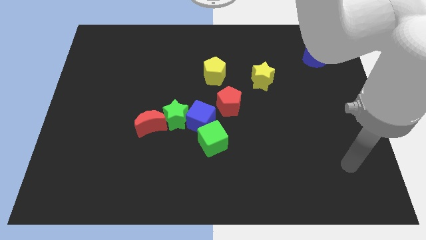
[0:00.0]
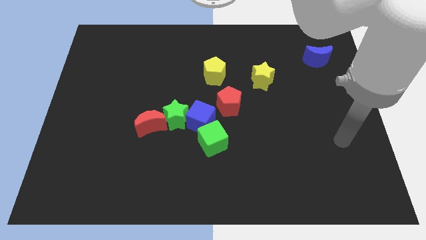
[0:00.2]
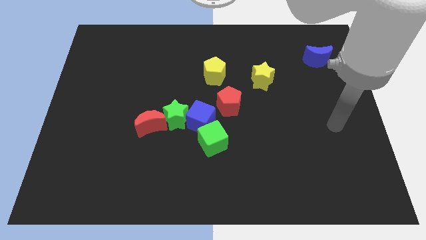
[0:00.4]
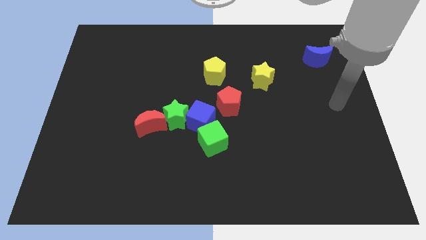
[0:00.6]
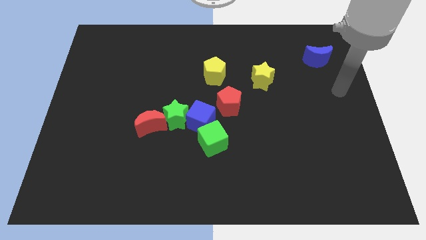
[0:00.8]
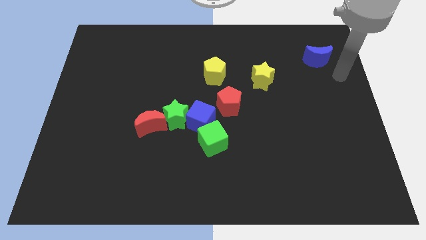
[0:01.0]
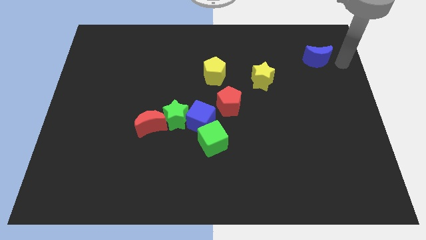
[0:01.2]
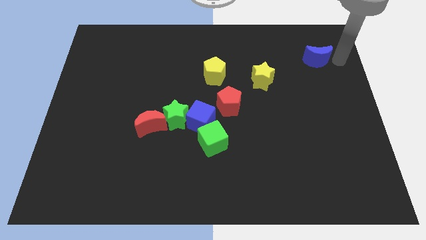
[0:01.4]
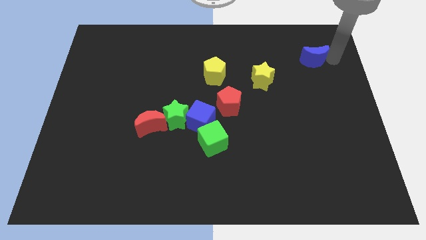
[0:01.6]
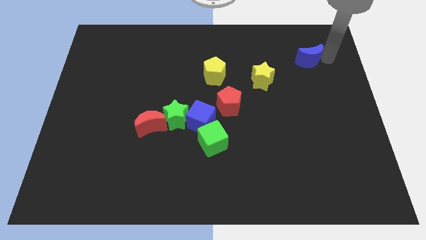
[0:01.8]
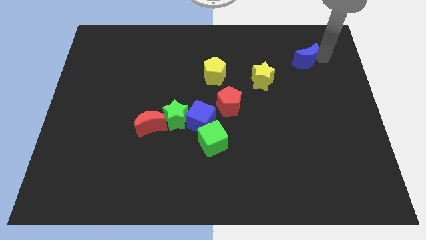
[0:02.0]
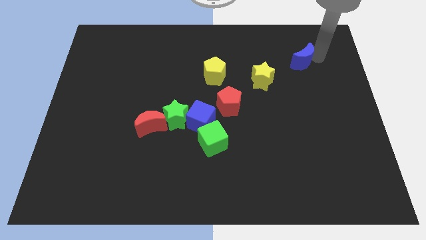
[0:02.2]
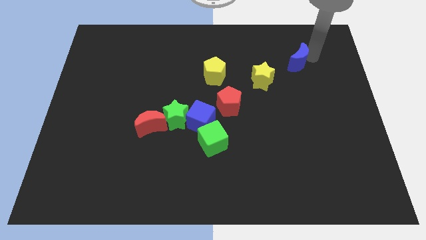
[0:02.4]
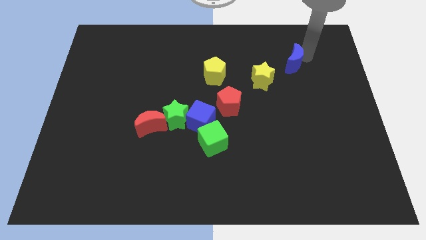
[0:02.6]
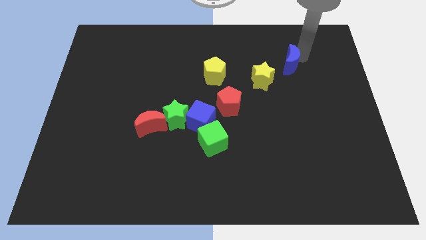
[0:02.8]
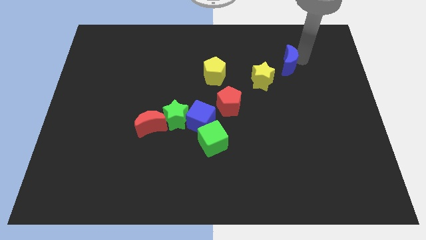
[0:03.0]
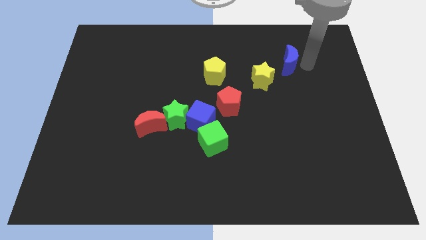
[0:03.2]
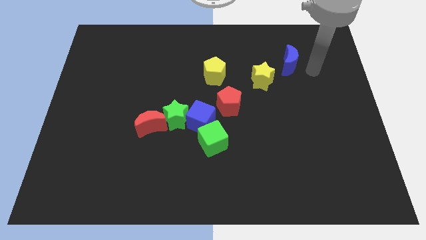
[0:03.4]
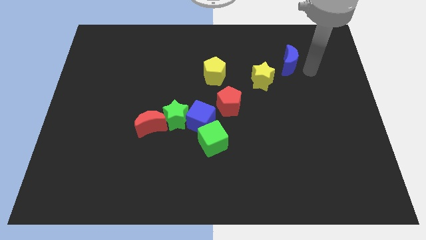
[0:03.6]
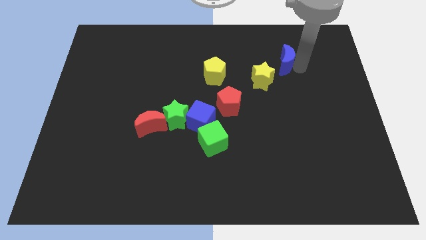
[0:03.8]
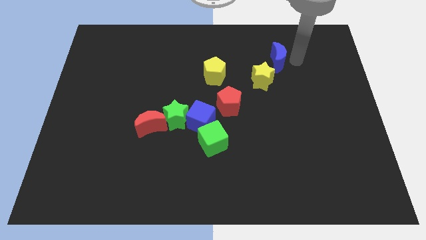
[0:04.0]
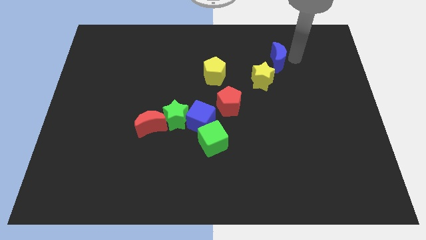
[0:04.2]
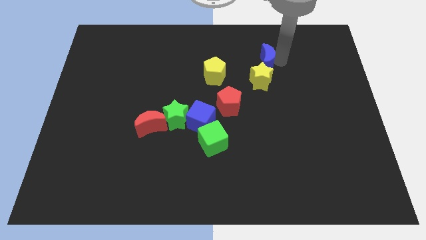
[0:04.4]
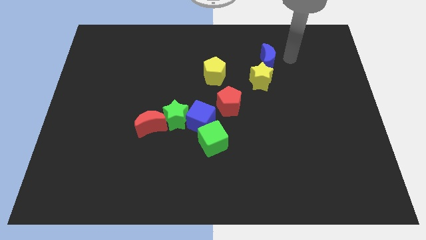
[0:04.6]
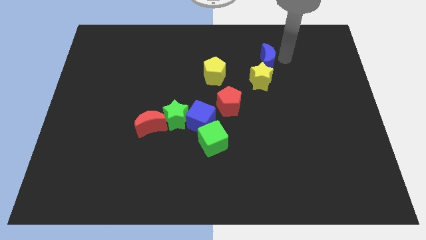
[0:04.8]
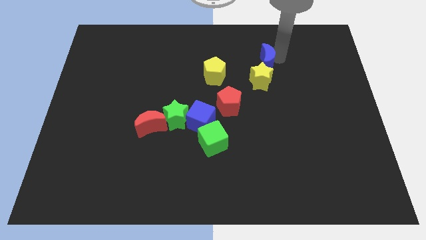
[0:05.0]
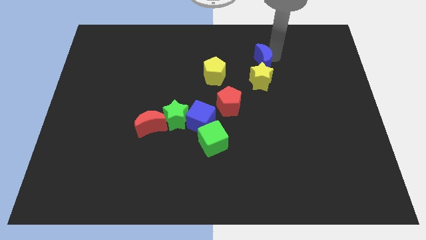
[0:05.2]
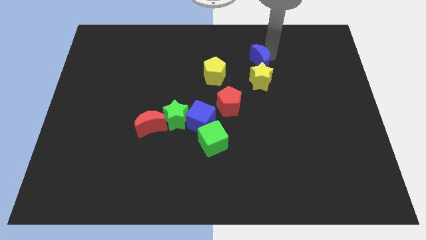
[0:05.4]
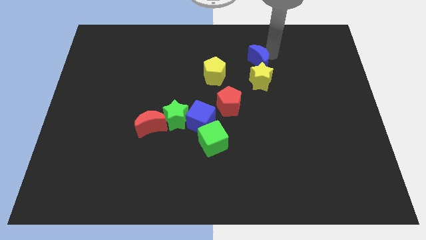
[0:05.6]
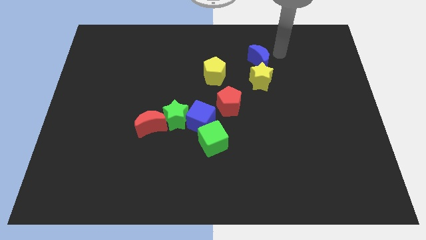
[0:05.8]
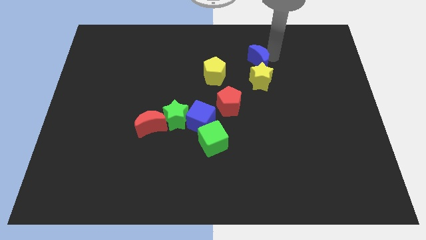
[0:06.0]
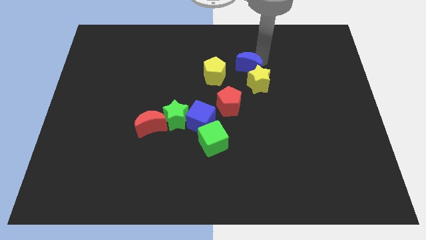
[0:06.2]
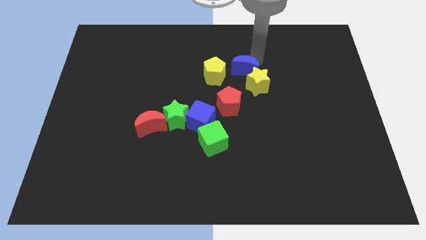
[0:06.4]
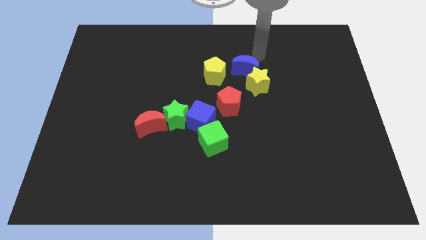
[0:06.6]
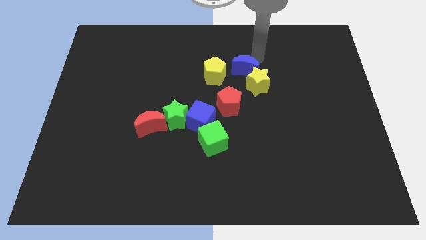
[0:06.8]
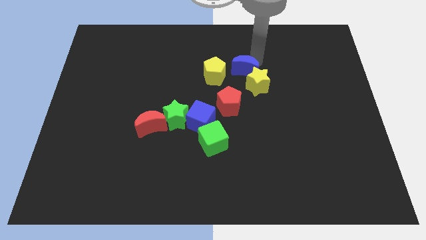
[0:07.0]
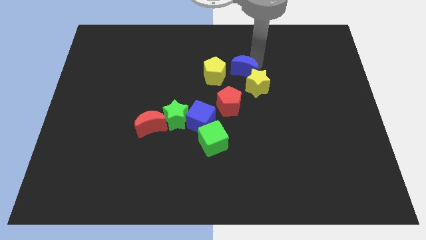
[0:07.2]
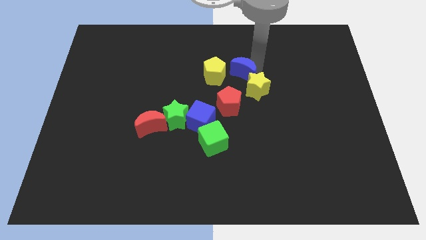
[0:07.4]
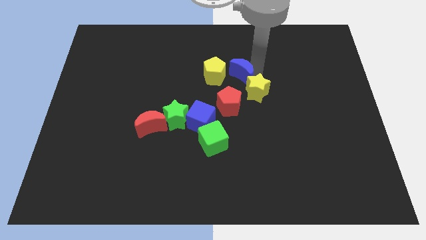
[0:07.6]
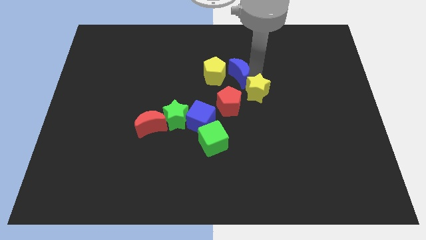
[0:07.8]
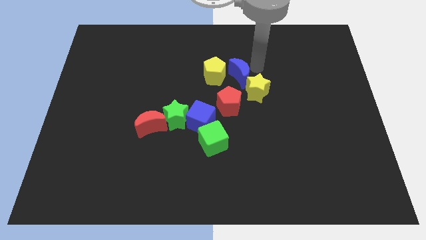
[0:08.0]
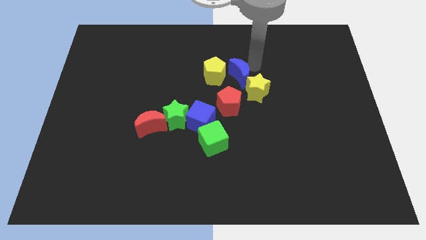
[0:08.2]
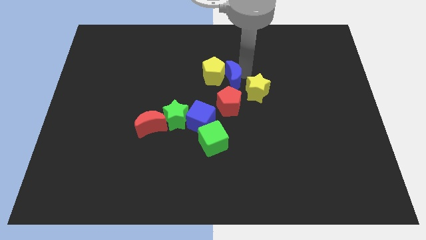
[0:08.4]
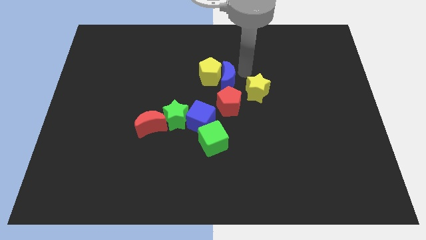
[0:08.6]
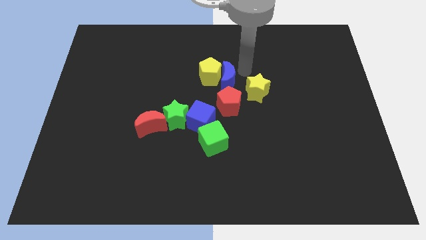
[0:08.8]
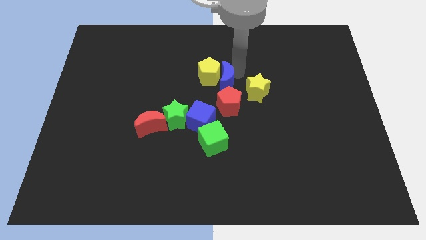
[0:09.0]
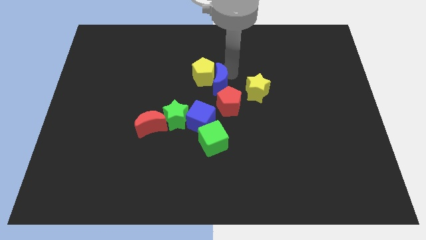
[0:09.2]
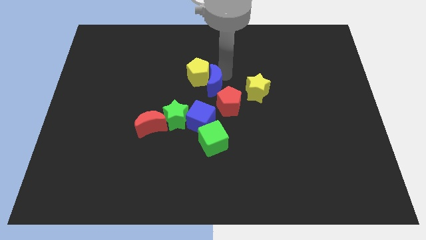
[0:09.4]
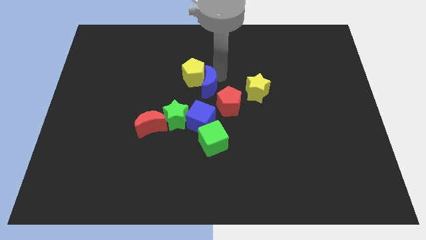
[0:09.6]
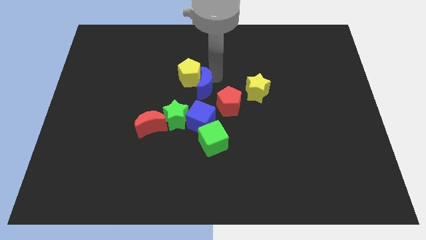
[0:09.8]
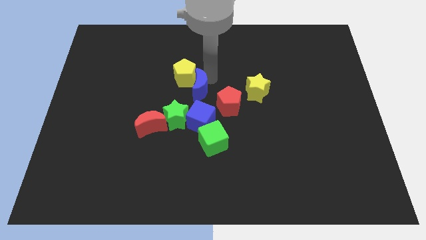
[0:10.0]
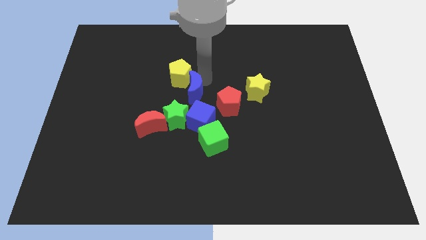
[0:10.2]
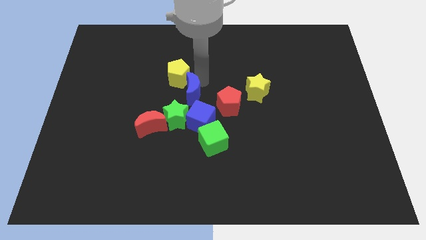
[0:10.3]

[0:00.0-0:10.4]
move the blue moon diagonally up and to the left of the blue cube

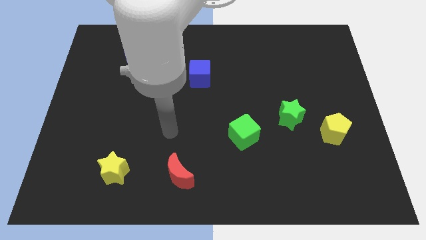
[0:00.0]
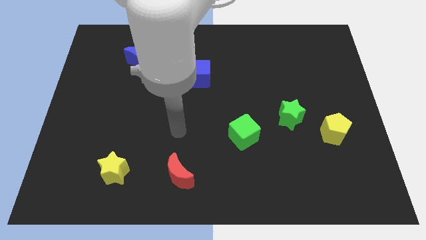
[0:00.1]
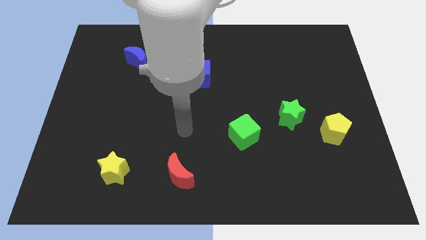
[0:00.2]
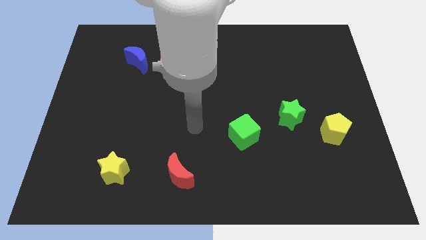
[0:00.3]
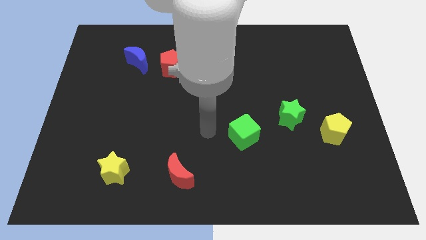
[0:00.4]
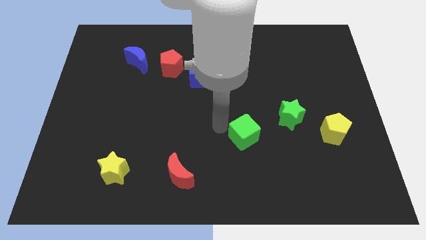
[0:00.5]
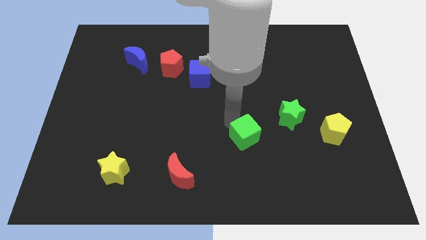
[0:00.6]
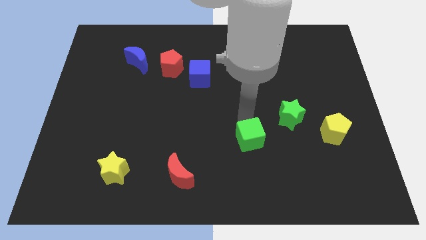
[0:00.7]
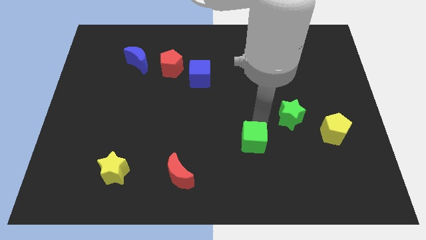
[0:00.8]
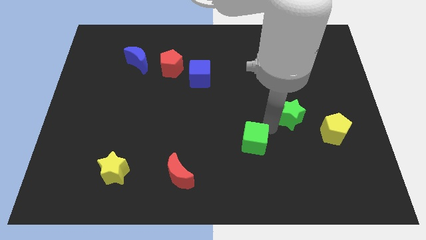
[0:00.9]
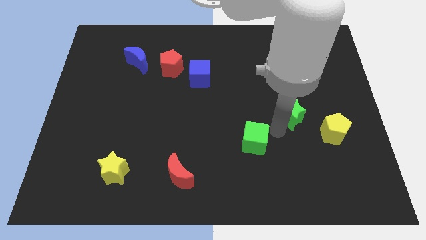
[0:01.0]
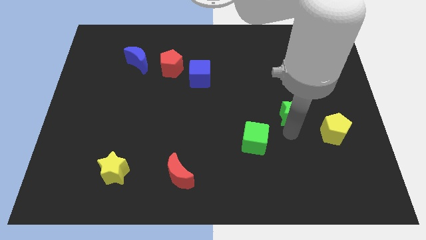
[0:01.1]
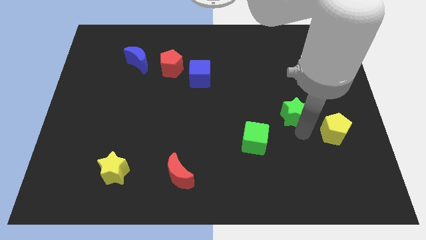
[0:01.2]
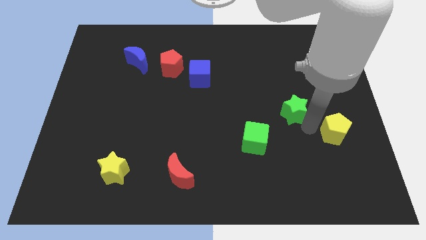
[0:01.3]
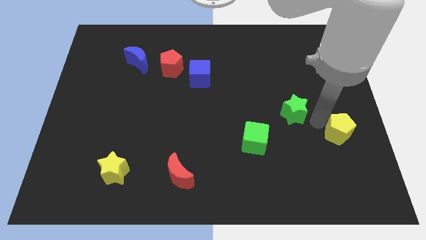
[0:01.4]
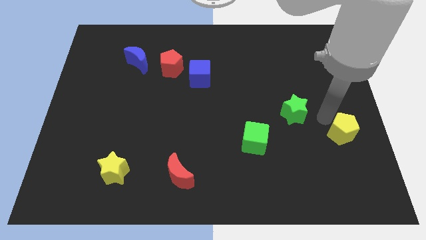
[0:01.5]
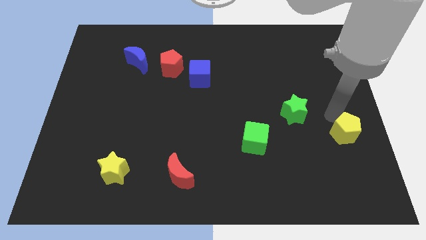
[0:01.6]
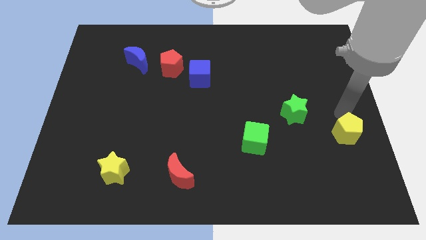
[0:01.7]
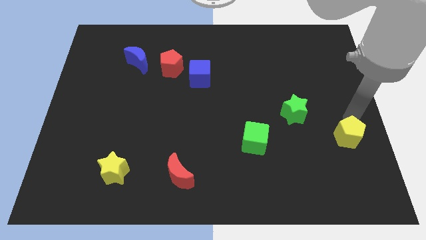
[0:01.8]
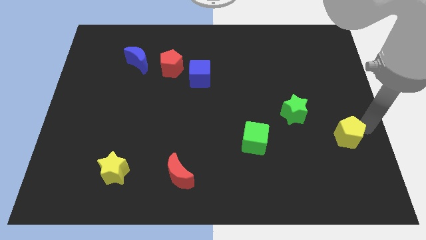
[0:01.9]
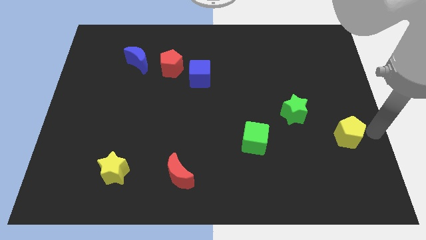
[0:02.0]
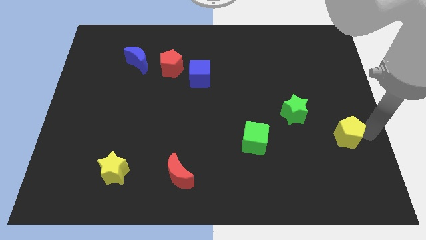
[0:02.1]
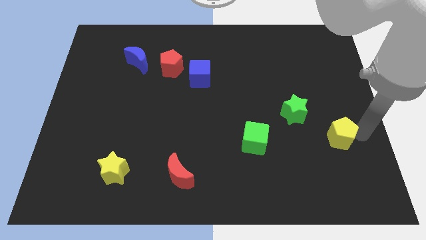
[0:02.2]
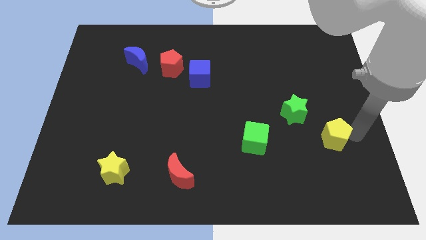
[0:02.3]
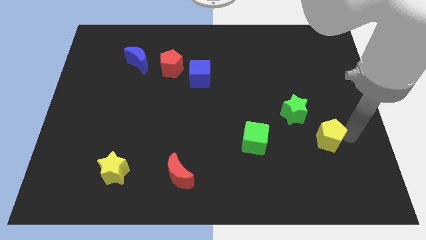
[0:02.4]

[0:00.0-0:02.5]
slide the yellow pentagon just right of the green cube
